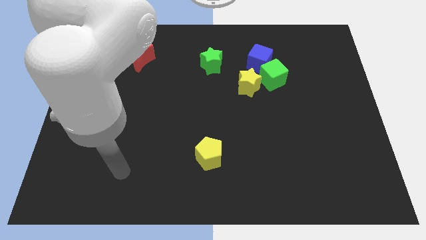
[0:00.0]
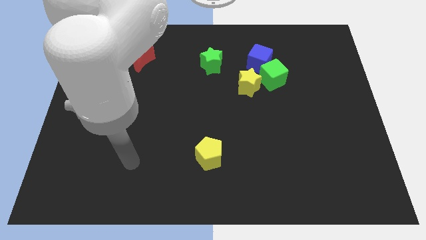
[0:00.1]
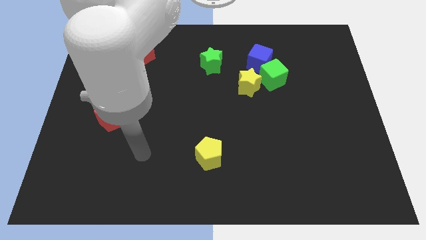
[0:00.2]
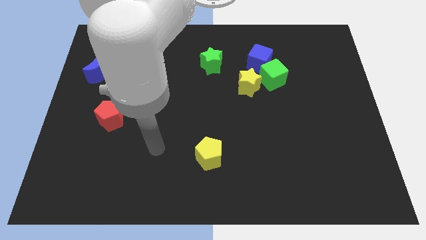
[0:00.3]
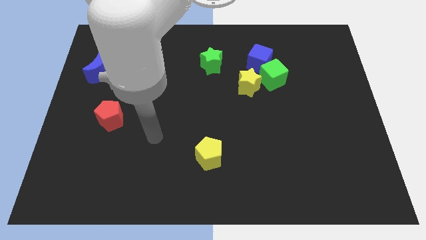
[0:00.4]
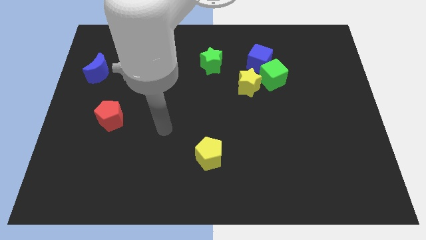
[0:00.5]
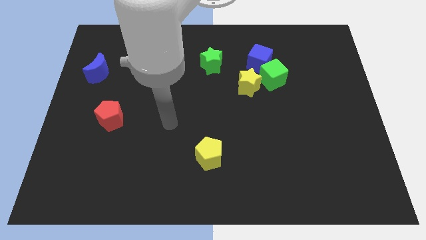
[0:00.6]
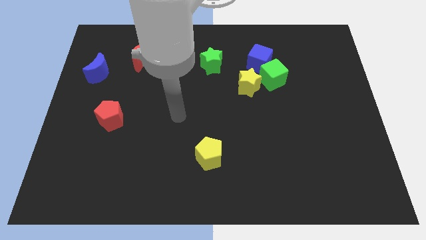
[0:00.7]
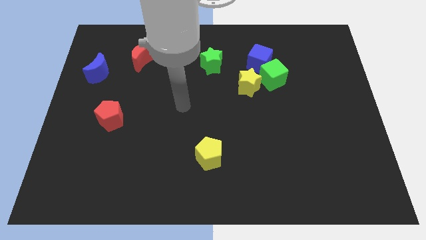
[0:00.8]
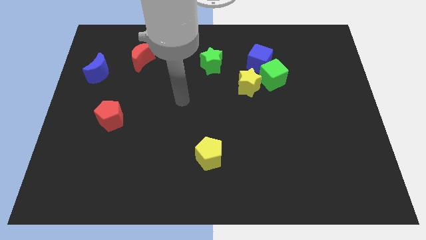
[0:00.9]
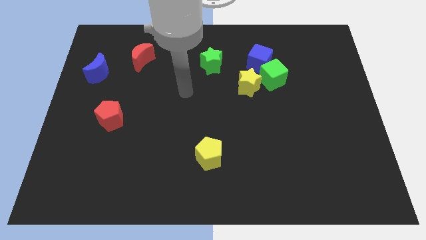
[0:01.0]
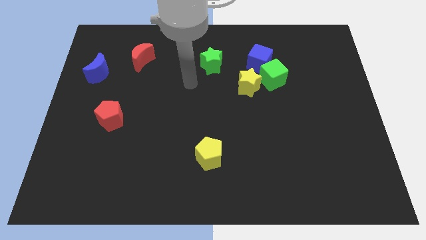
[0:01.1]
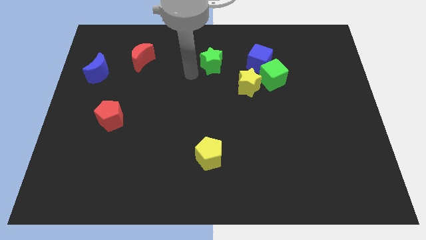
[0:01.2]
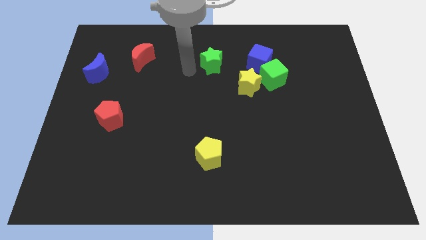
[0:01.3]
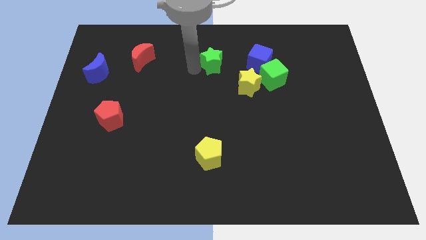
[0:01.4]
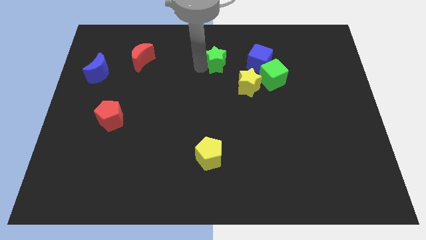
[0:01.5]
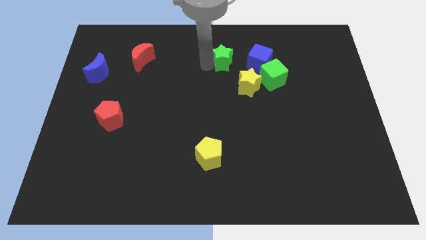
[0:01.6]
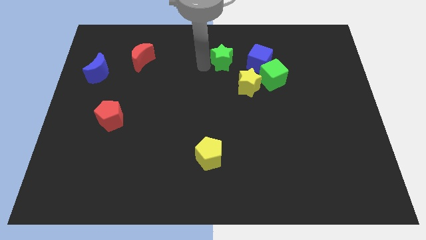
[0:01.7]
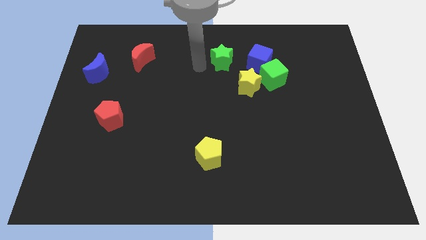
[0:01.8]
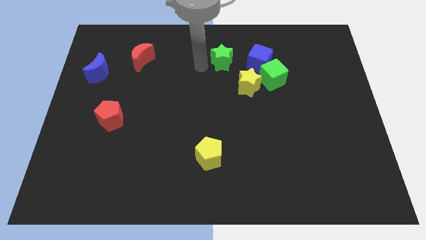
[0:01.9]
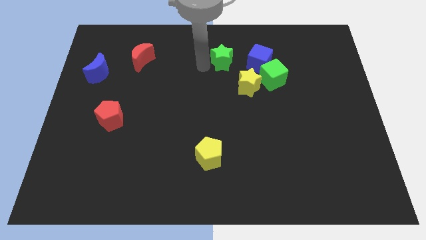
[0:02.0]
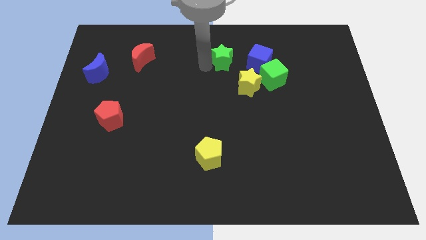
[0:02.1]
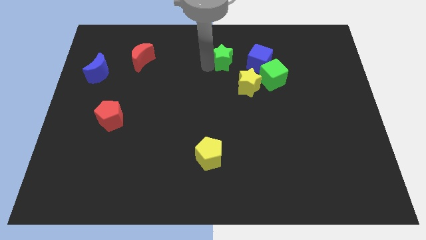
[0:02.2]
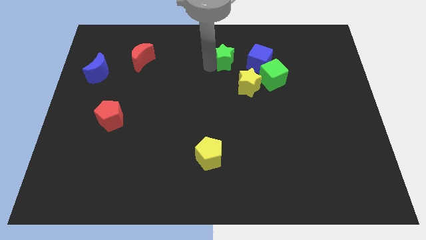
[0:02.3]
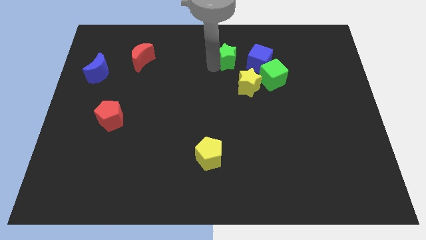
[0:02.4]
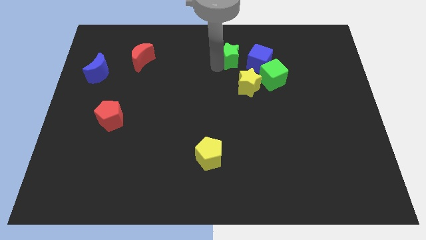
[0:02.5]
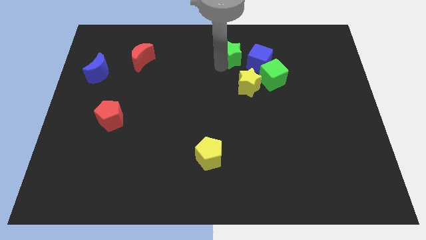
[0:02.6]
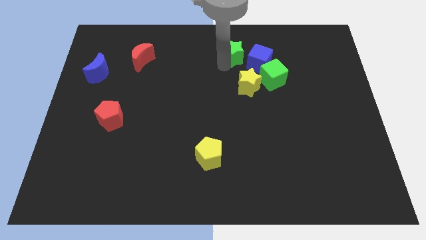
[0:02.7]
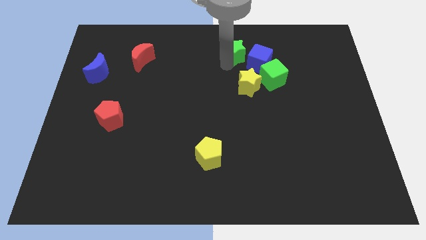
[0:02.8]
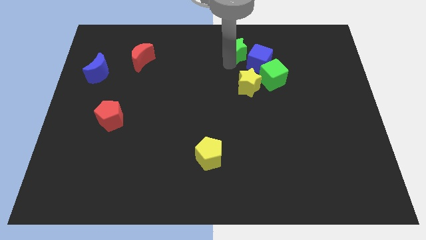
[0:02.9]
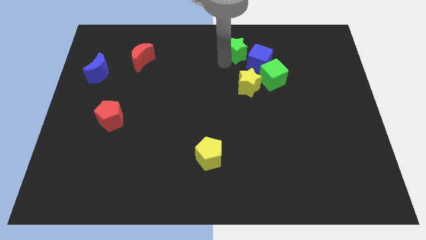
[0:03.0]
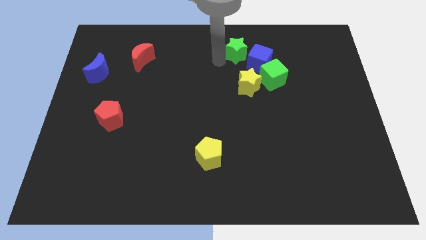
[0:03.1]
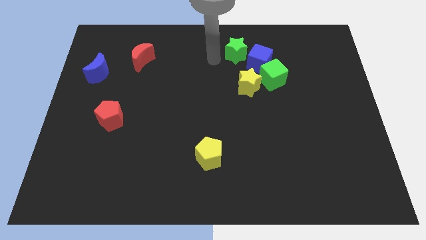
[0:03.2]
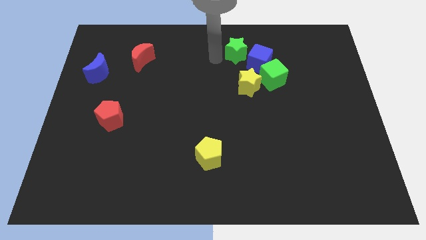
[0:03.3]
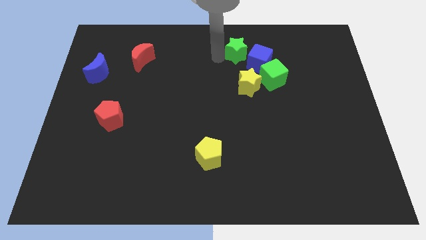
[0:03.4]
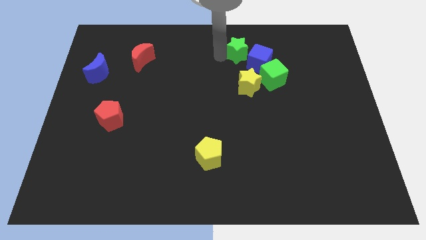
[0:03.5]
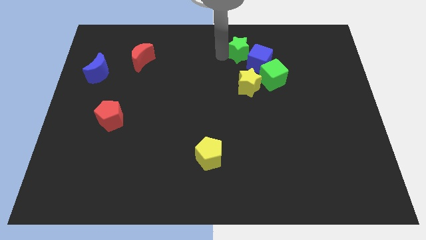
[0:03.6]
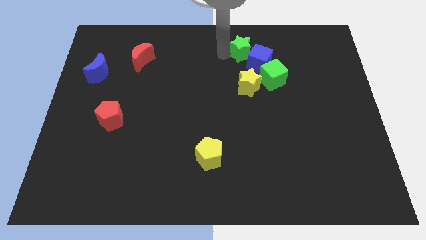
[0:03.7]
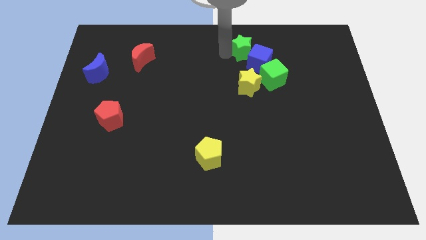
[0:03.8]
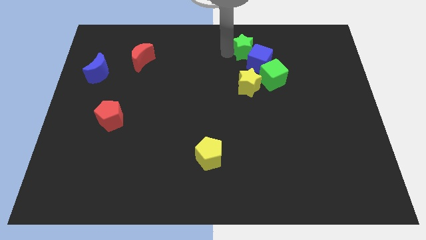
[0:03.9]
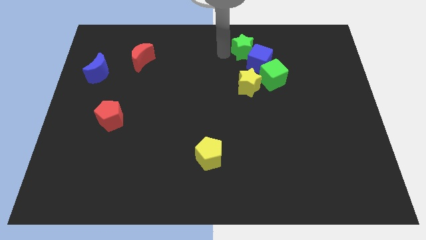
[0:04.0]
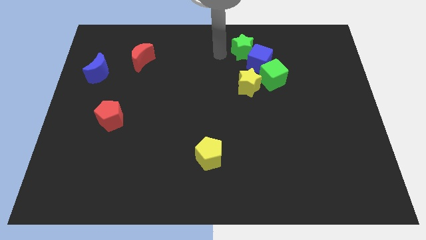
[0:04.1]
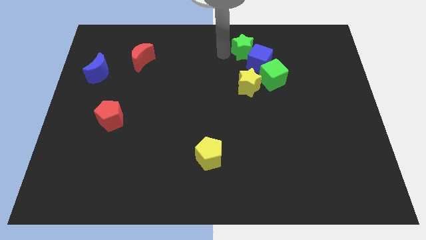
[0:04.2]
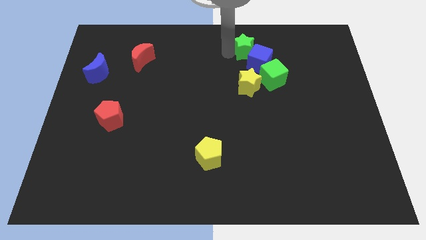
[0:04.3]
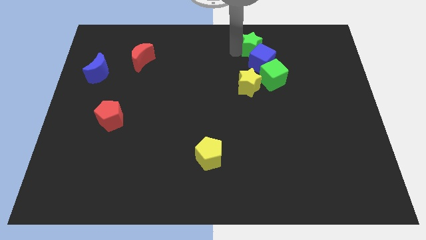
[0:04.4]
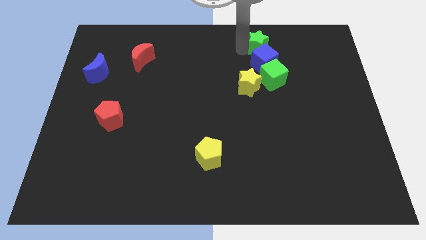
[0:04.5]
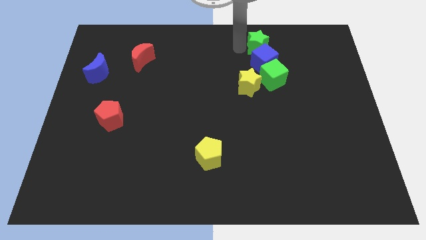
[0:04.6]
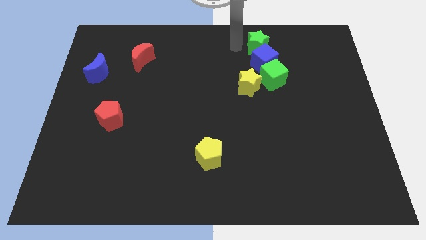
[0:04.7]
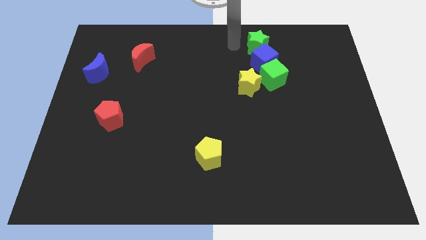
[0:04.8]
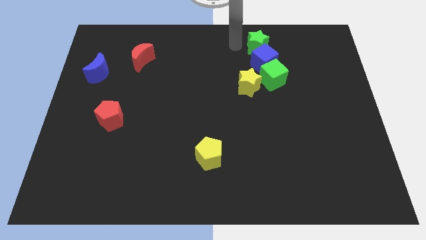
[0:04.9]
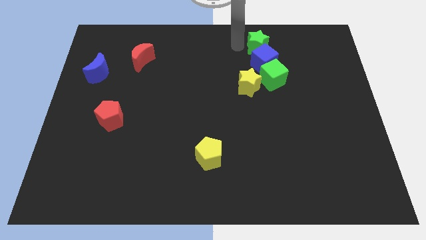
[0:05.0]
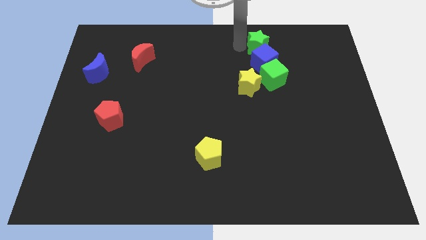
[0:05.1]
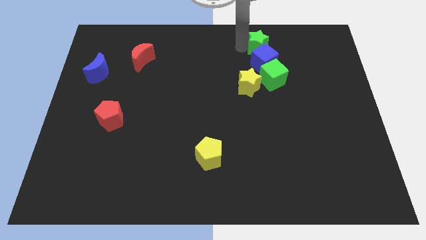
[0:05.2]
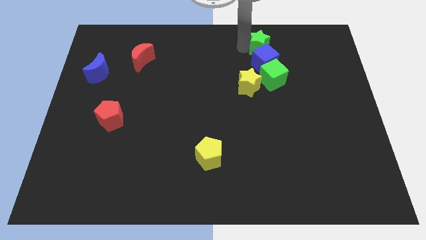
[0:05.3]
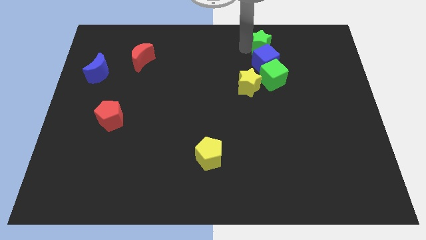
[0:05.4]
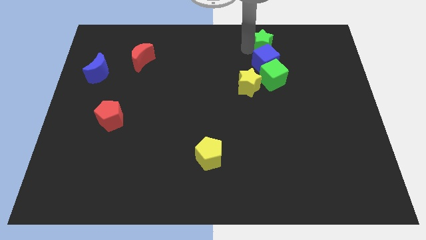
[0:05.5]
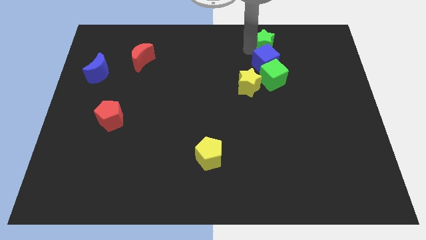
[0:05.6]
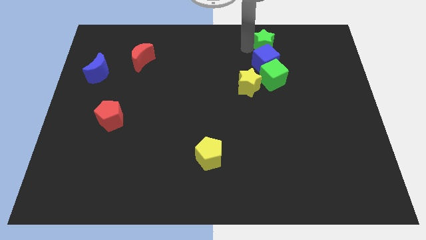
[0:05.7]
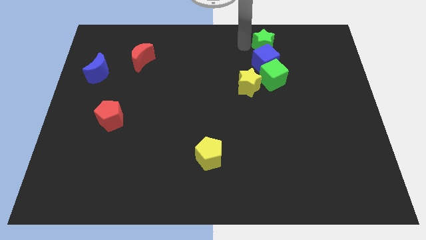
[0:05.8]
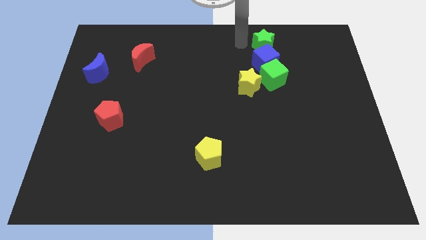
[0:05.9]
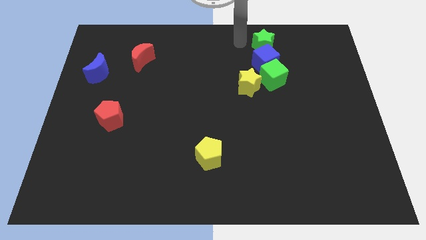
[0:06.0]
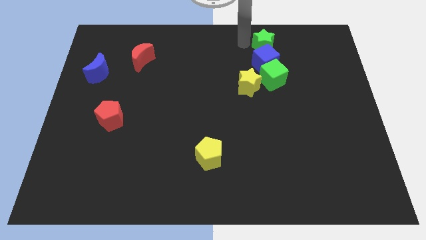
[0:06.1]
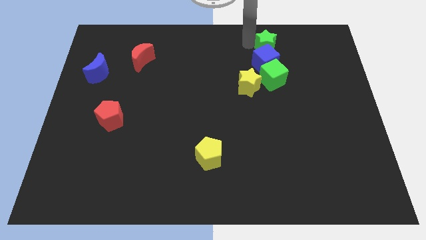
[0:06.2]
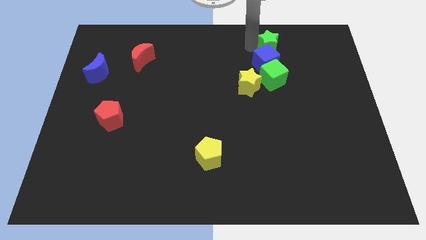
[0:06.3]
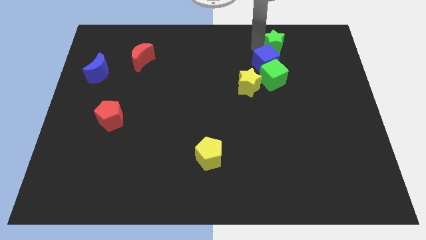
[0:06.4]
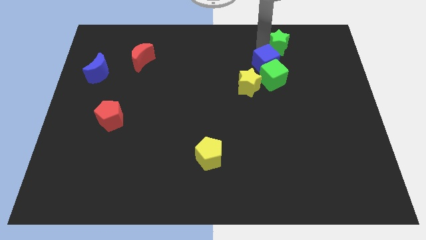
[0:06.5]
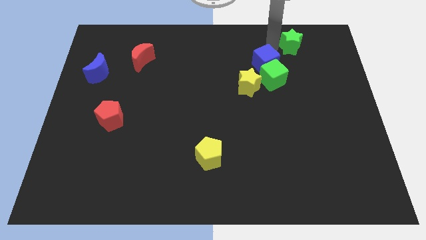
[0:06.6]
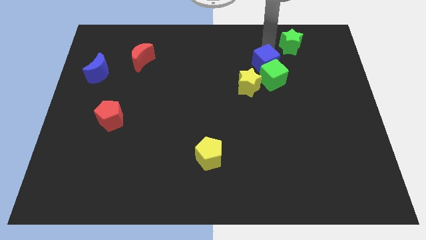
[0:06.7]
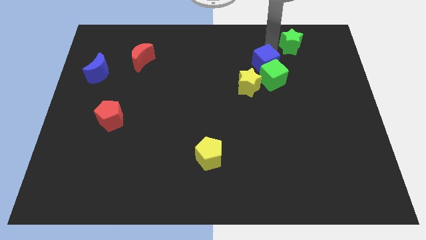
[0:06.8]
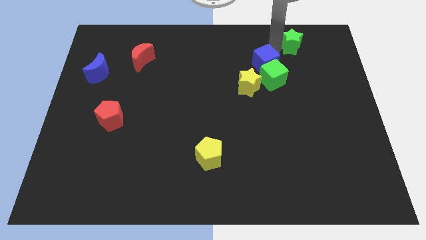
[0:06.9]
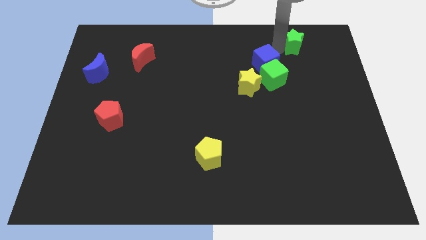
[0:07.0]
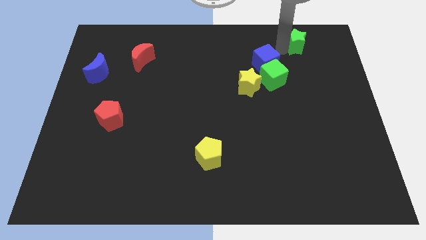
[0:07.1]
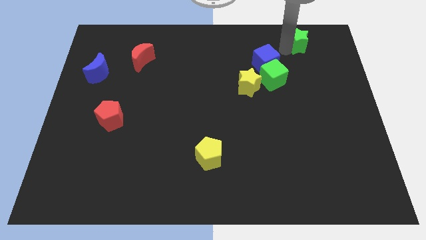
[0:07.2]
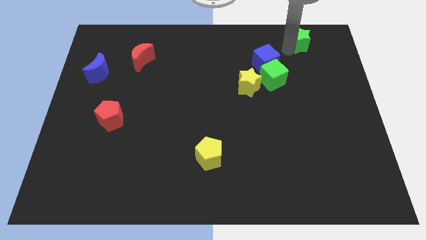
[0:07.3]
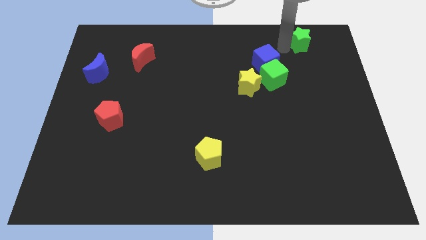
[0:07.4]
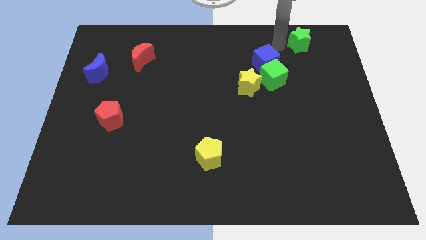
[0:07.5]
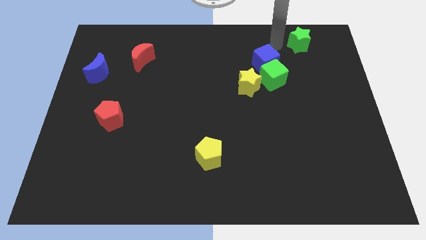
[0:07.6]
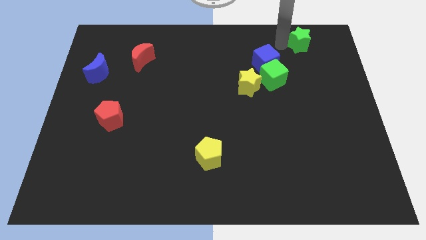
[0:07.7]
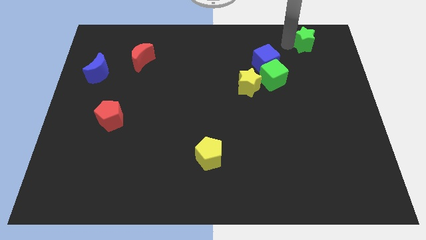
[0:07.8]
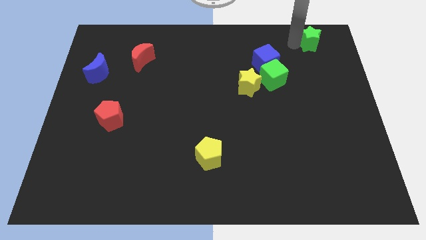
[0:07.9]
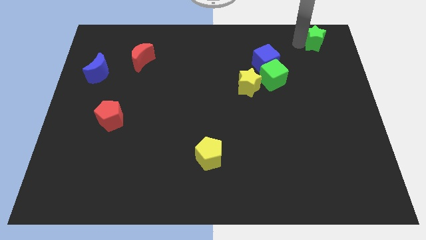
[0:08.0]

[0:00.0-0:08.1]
push the green star to the top right
